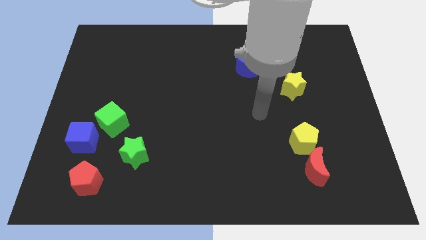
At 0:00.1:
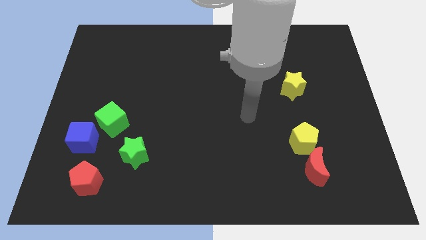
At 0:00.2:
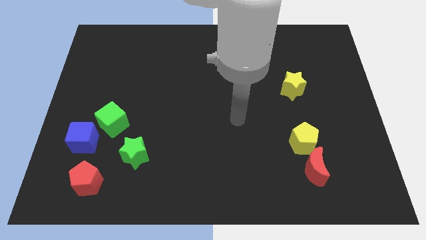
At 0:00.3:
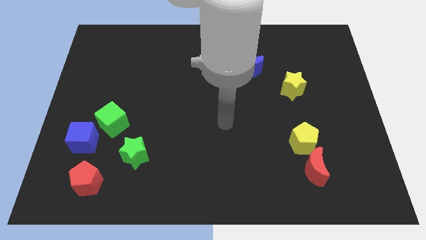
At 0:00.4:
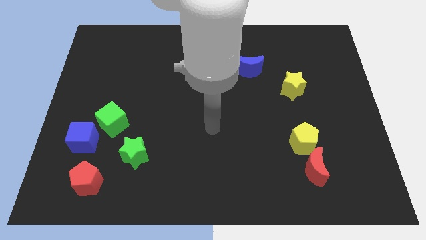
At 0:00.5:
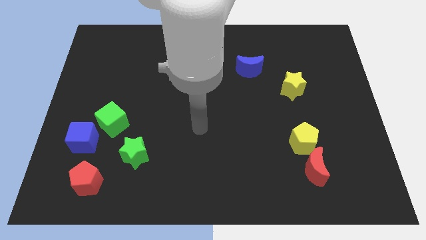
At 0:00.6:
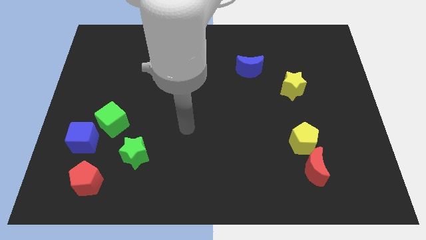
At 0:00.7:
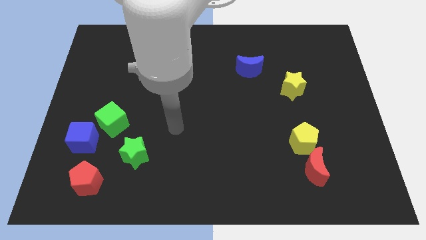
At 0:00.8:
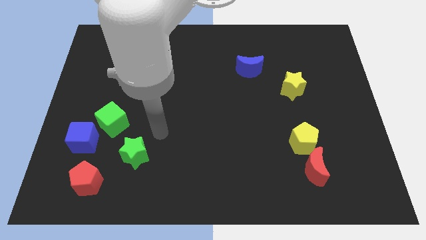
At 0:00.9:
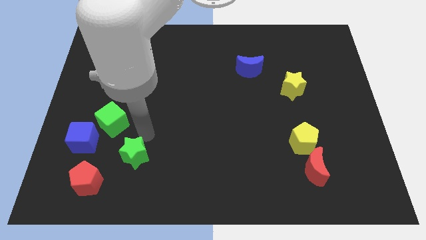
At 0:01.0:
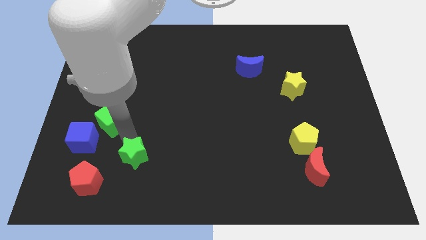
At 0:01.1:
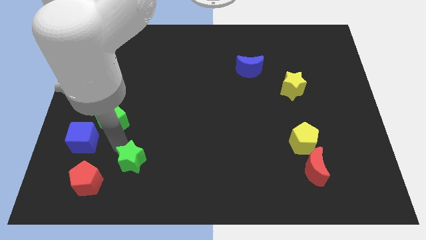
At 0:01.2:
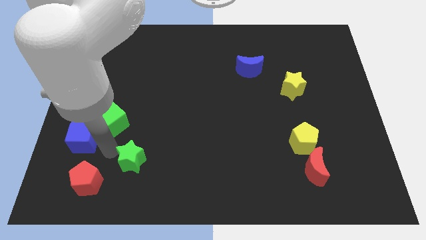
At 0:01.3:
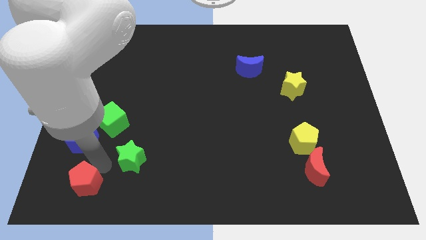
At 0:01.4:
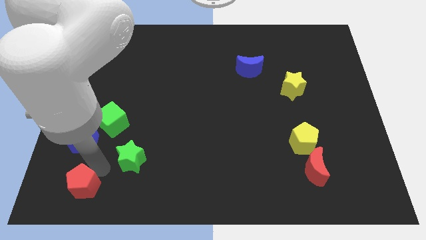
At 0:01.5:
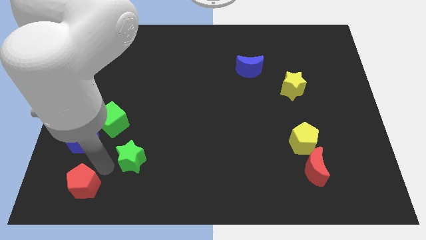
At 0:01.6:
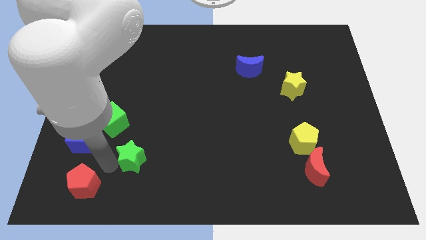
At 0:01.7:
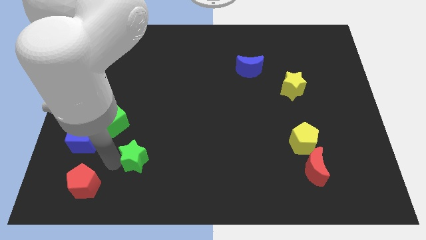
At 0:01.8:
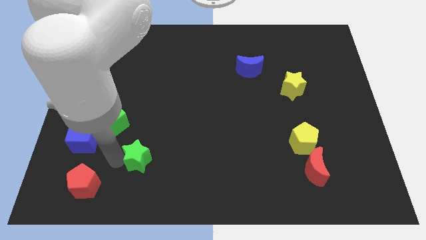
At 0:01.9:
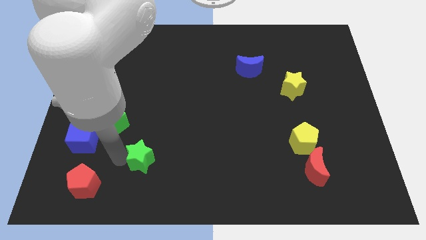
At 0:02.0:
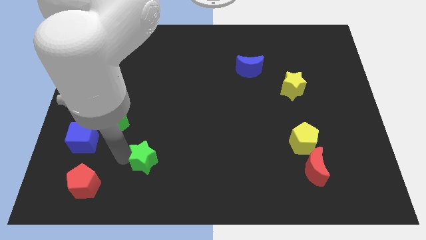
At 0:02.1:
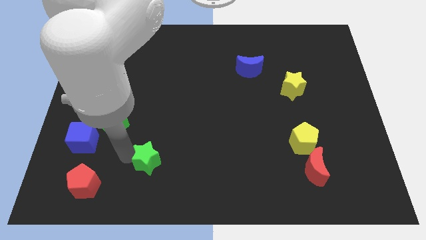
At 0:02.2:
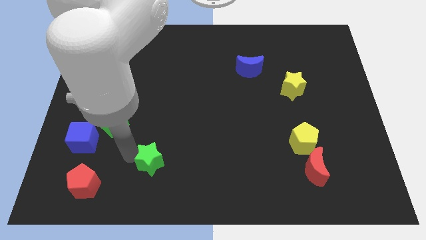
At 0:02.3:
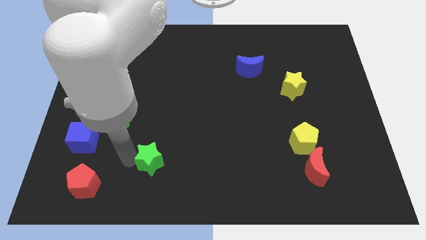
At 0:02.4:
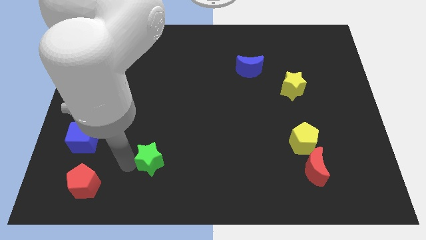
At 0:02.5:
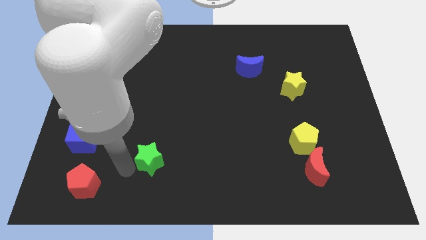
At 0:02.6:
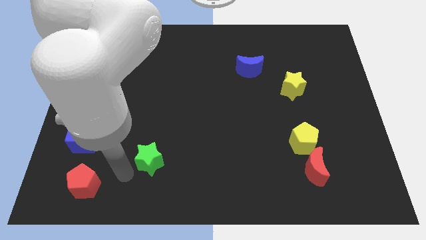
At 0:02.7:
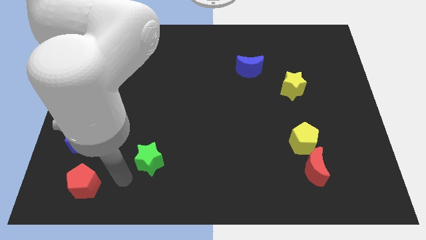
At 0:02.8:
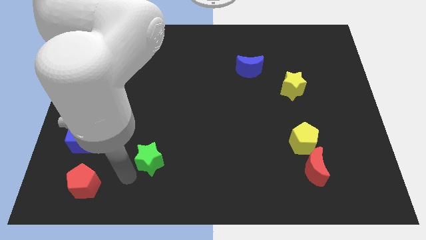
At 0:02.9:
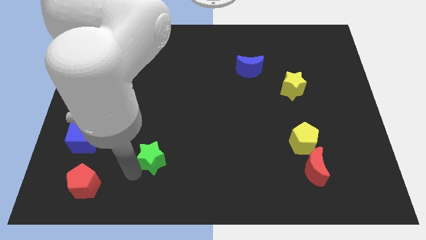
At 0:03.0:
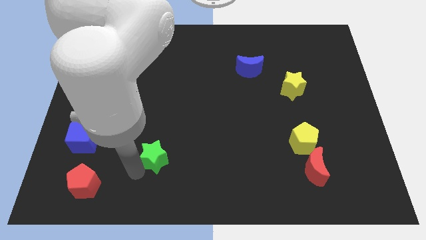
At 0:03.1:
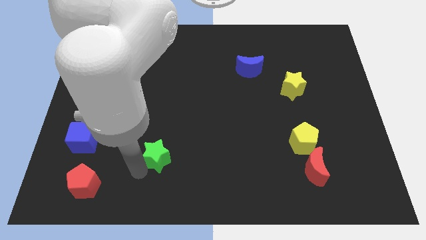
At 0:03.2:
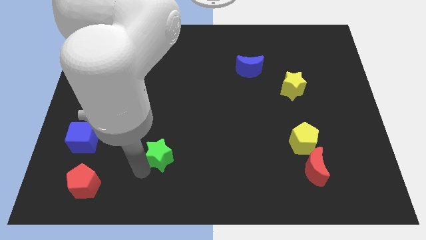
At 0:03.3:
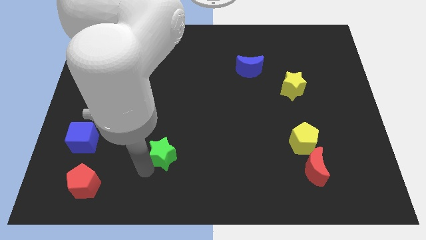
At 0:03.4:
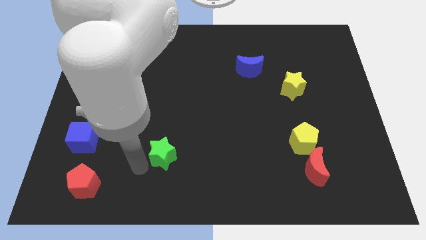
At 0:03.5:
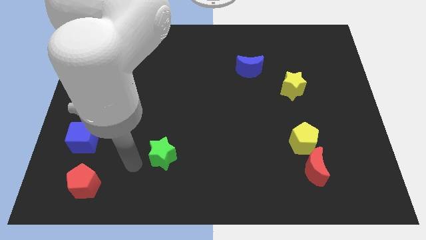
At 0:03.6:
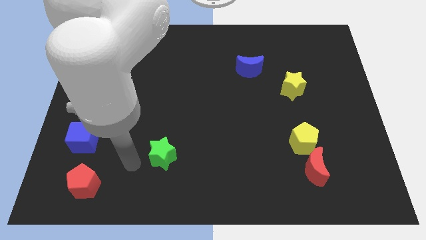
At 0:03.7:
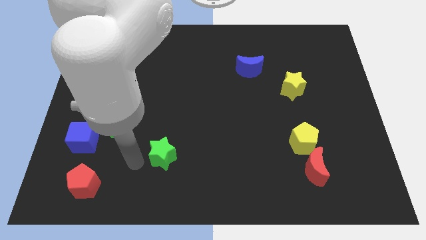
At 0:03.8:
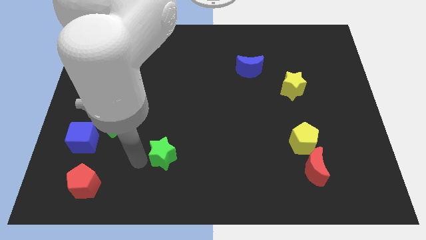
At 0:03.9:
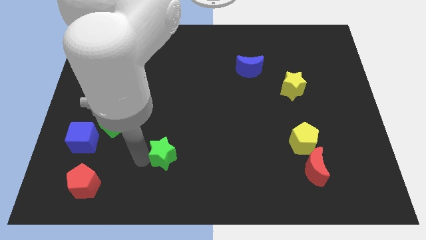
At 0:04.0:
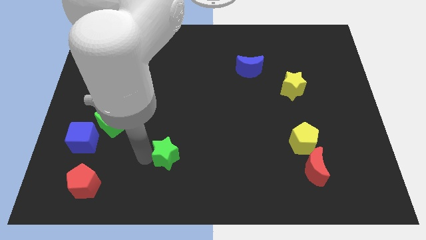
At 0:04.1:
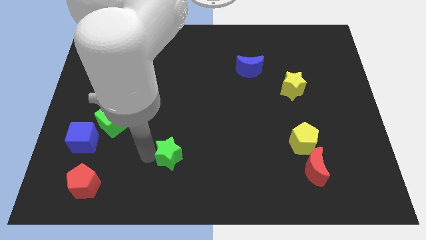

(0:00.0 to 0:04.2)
move the green star a little right

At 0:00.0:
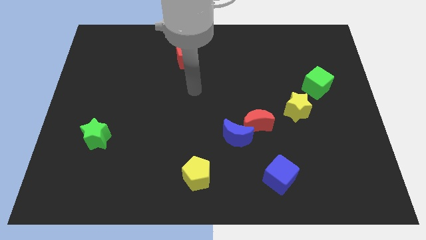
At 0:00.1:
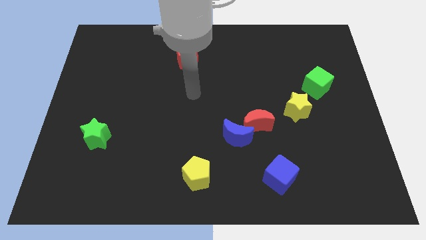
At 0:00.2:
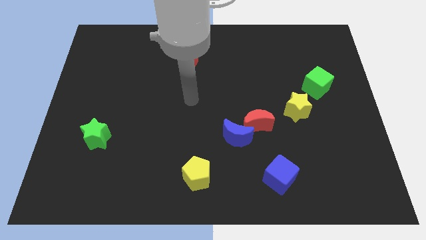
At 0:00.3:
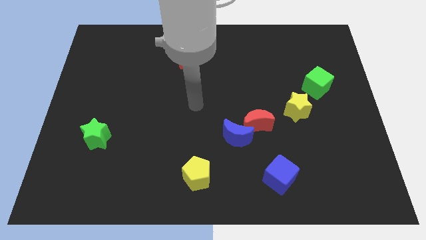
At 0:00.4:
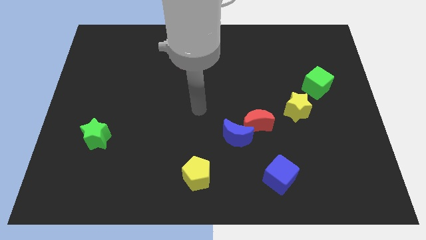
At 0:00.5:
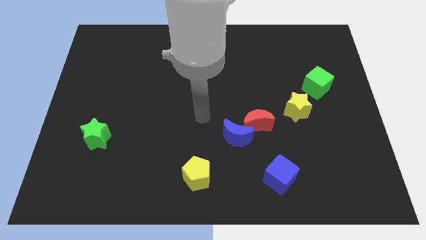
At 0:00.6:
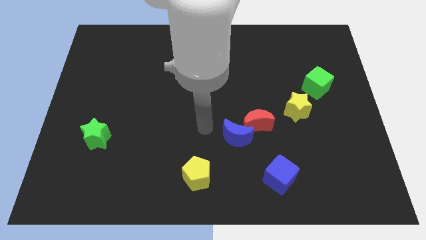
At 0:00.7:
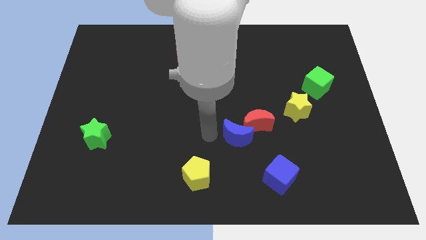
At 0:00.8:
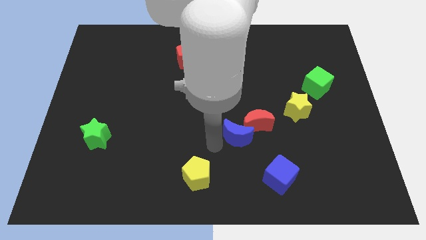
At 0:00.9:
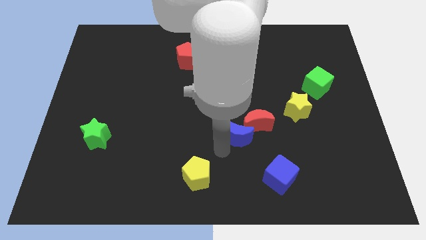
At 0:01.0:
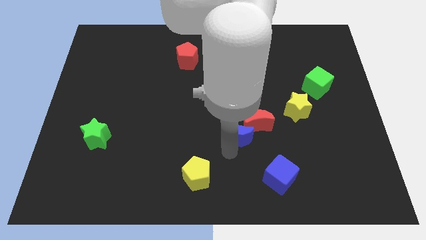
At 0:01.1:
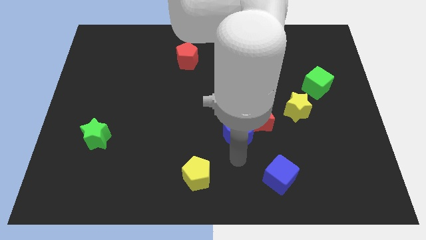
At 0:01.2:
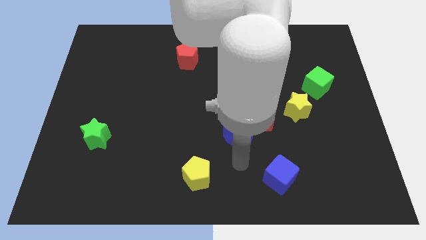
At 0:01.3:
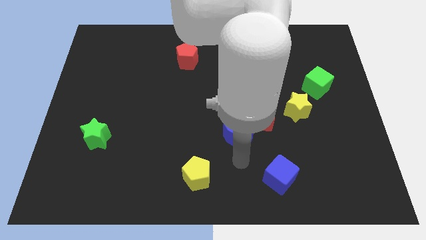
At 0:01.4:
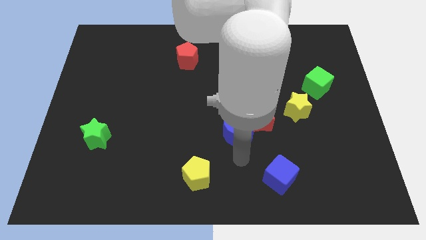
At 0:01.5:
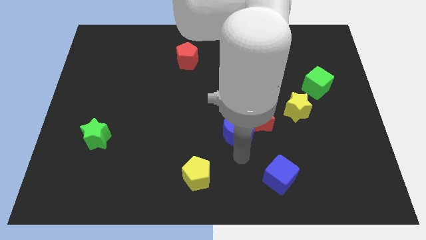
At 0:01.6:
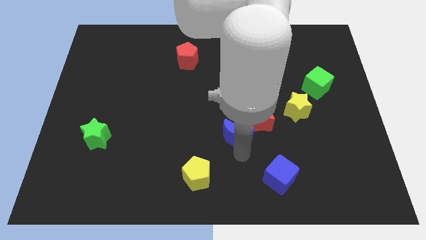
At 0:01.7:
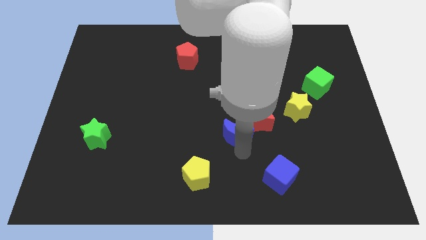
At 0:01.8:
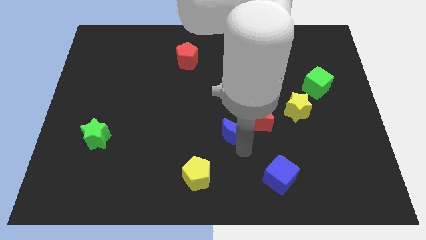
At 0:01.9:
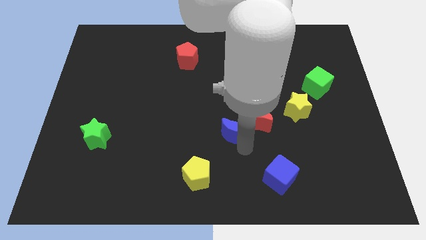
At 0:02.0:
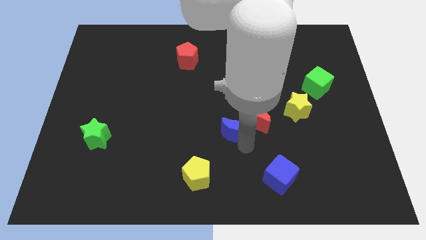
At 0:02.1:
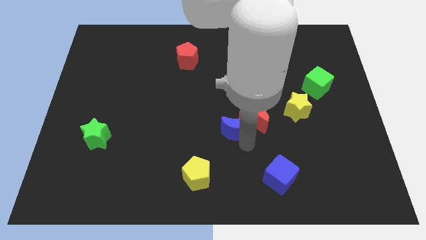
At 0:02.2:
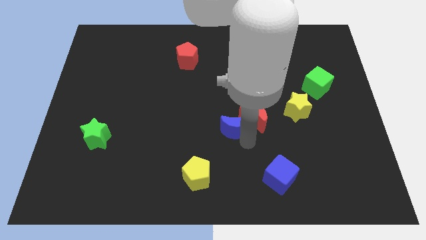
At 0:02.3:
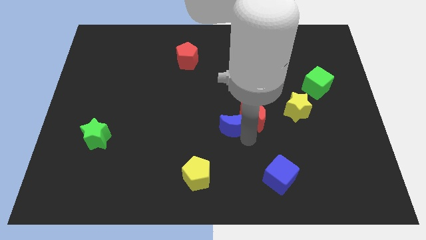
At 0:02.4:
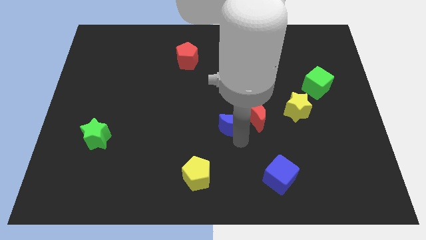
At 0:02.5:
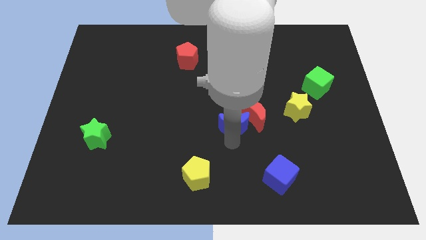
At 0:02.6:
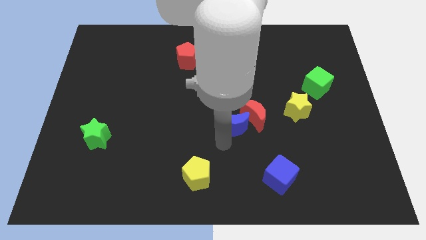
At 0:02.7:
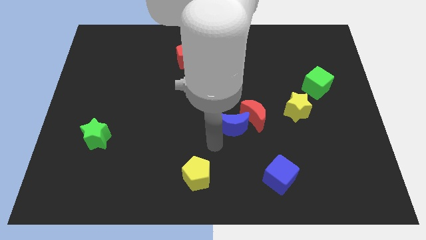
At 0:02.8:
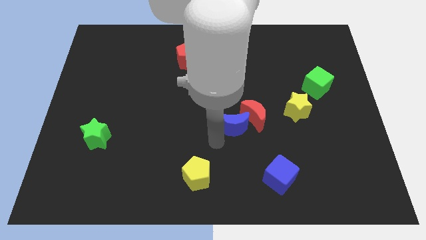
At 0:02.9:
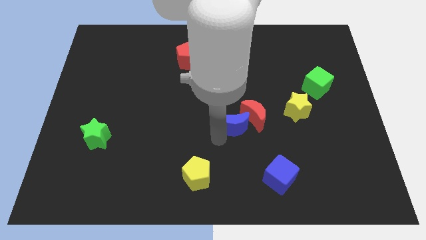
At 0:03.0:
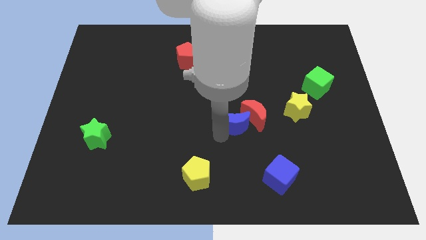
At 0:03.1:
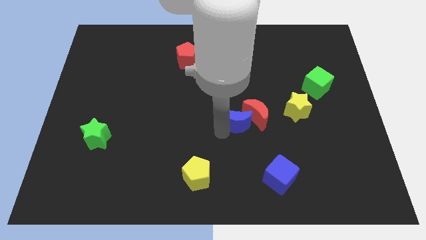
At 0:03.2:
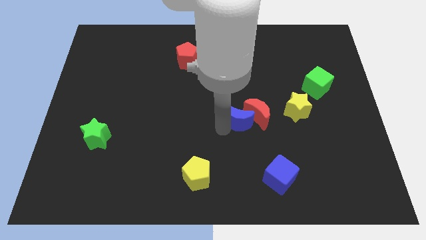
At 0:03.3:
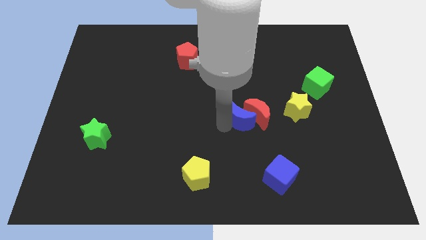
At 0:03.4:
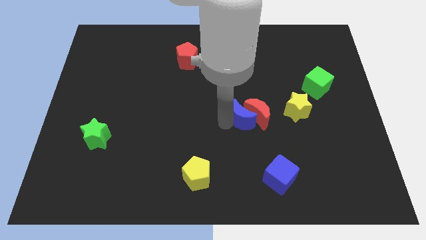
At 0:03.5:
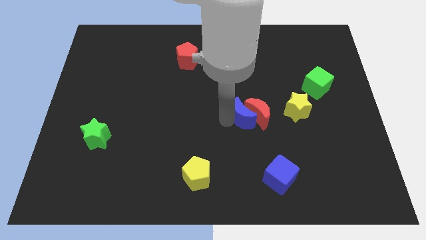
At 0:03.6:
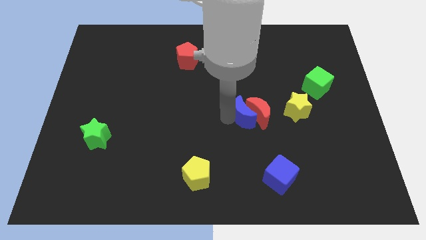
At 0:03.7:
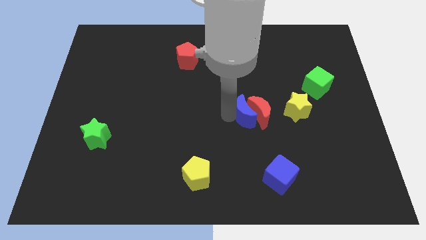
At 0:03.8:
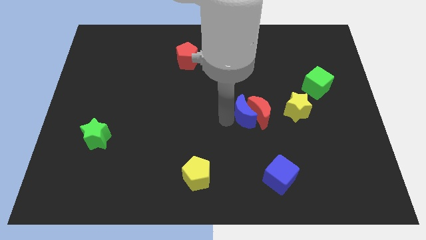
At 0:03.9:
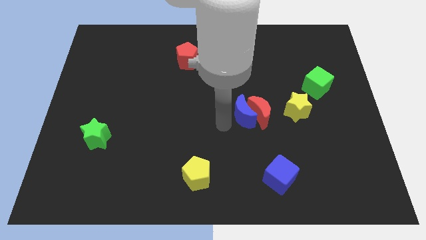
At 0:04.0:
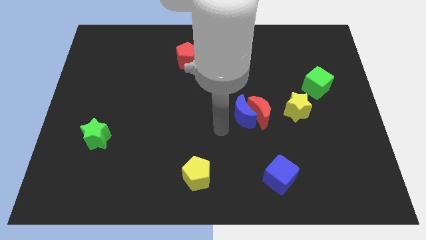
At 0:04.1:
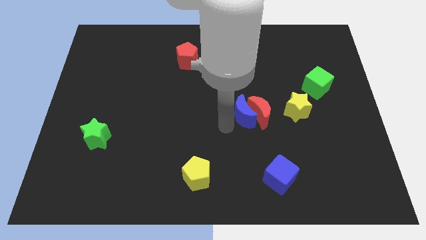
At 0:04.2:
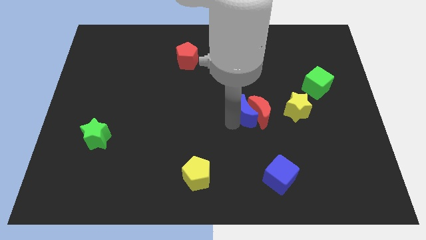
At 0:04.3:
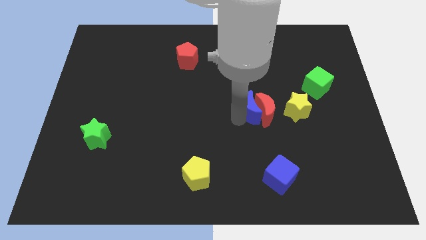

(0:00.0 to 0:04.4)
move the blue moon a little bit up and then right
